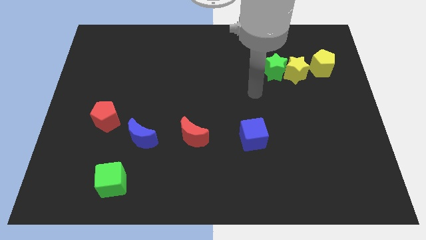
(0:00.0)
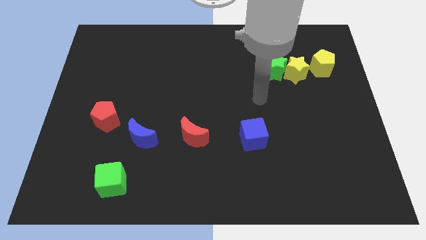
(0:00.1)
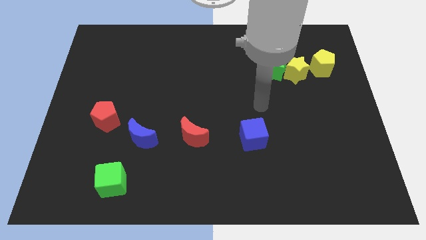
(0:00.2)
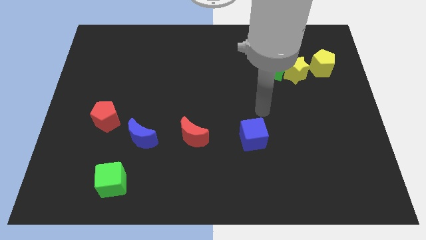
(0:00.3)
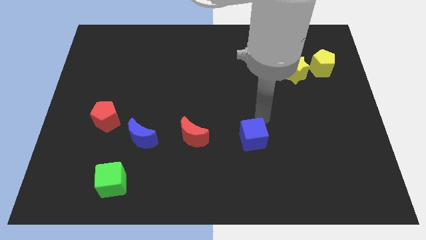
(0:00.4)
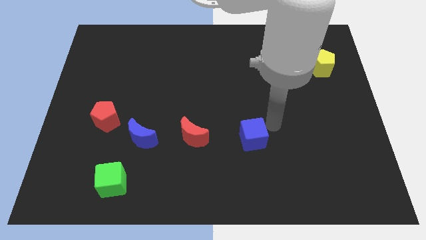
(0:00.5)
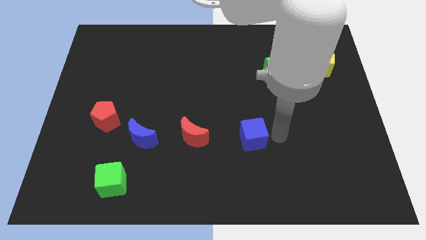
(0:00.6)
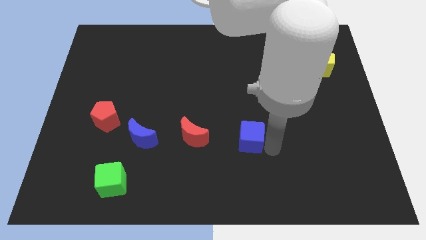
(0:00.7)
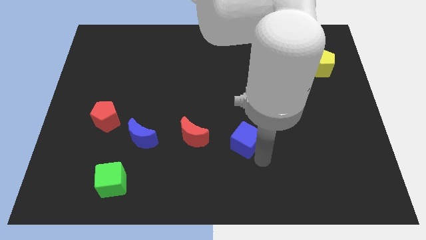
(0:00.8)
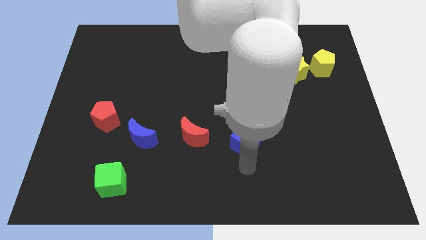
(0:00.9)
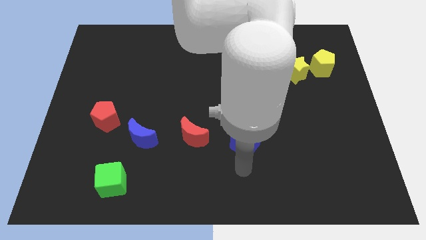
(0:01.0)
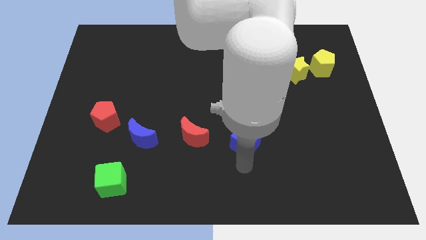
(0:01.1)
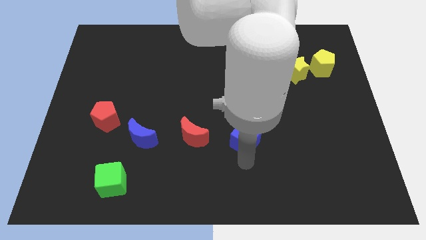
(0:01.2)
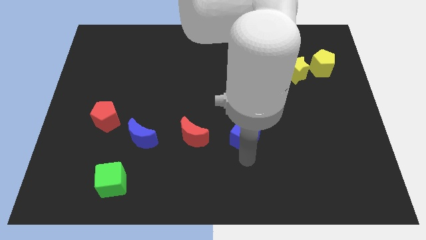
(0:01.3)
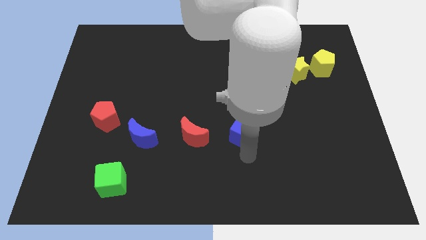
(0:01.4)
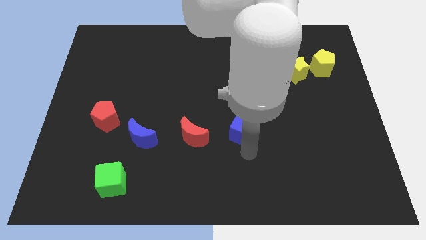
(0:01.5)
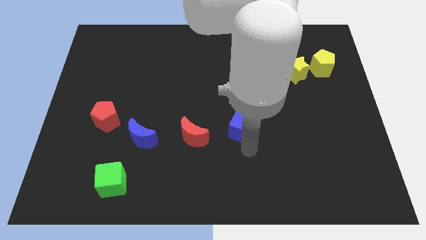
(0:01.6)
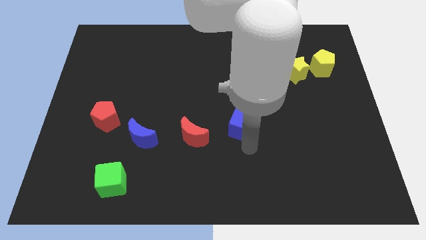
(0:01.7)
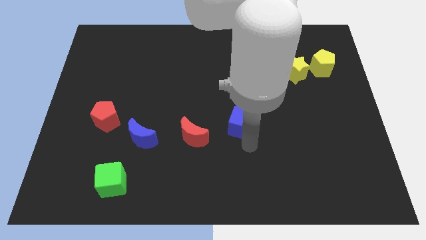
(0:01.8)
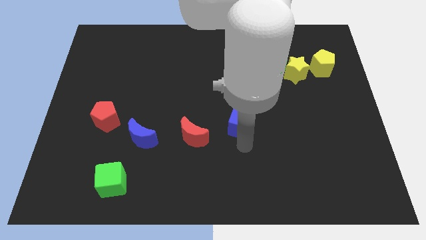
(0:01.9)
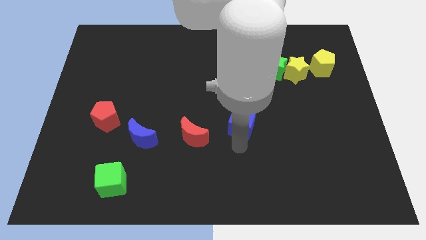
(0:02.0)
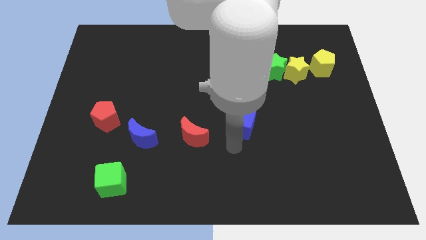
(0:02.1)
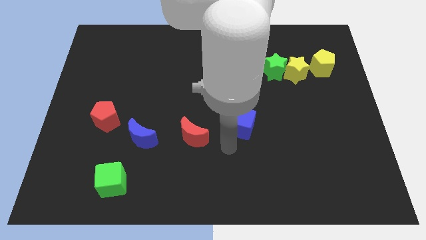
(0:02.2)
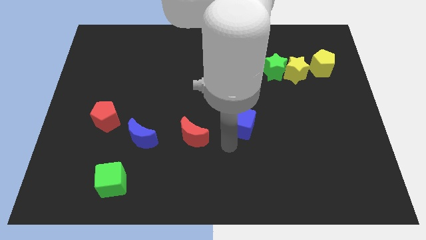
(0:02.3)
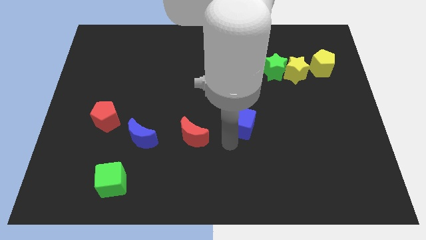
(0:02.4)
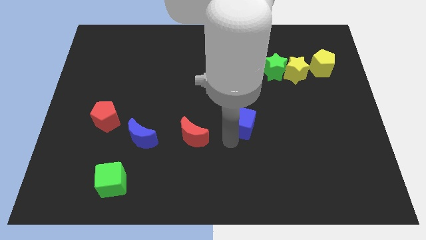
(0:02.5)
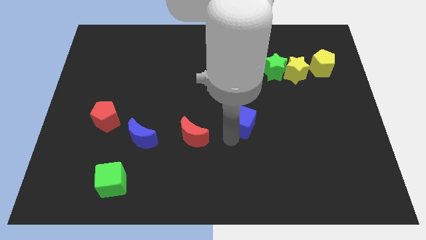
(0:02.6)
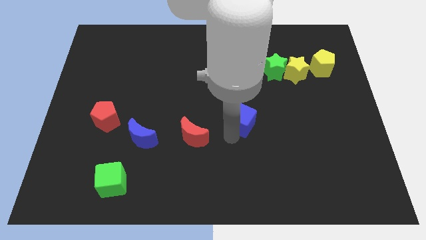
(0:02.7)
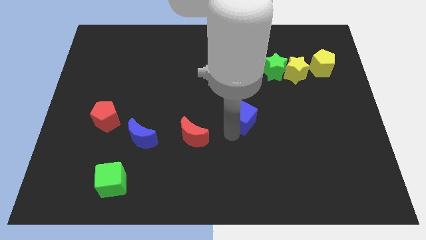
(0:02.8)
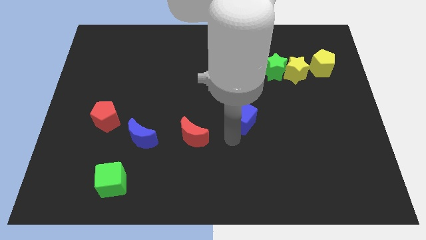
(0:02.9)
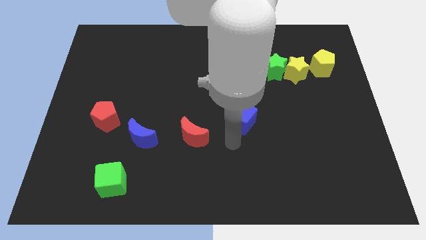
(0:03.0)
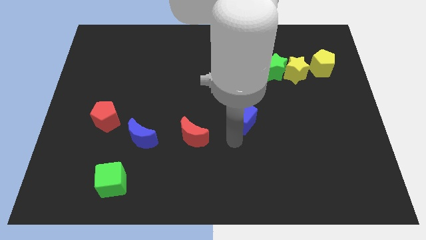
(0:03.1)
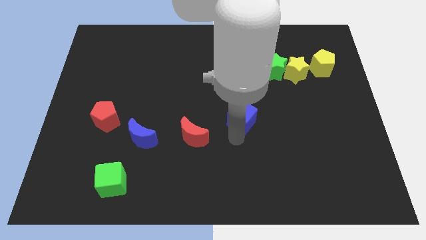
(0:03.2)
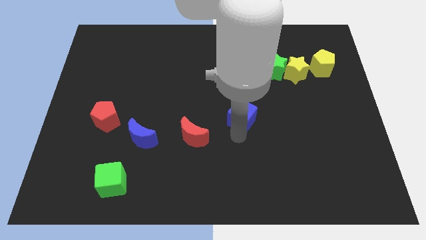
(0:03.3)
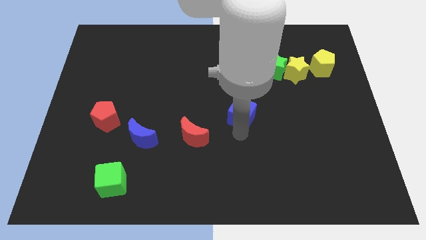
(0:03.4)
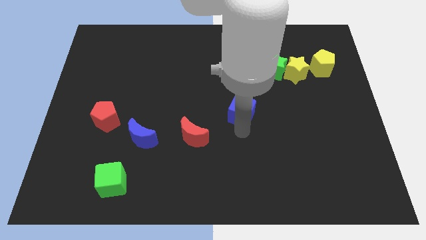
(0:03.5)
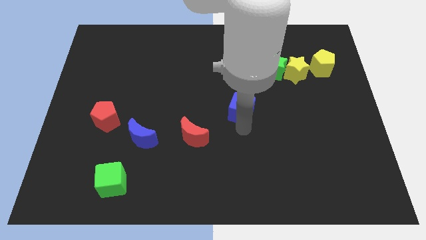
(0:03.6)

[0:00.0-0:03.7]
slide the blue cube up a little

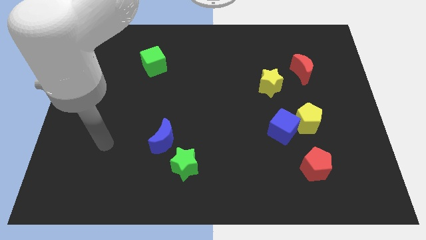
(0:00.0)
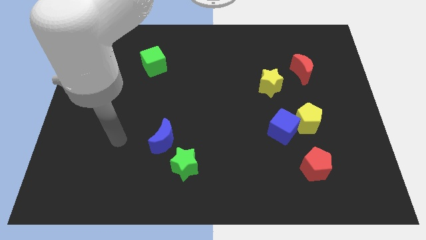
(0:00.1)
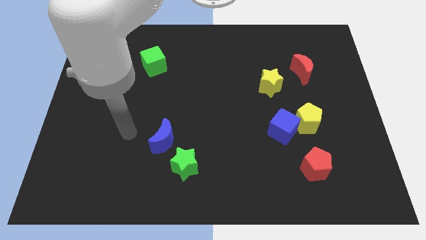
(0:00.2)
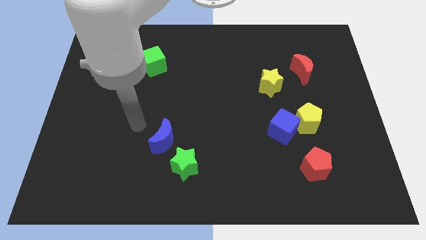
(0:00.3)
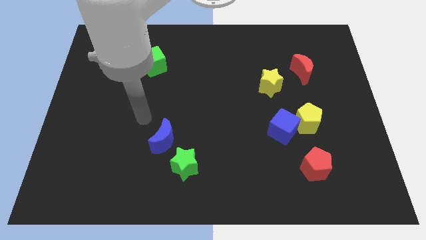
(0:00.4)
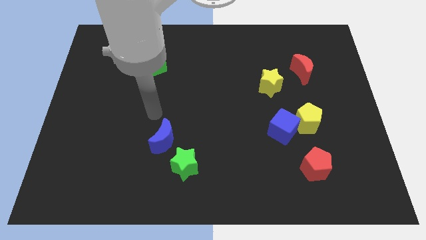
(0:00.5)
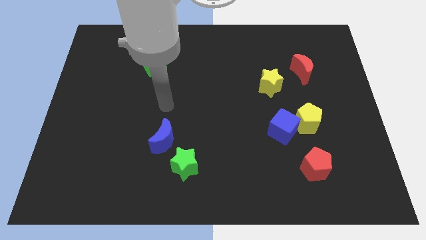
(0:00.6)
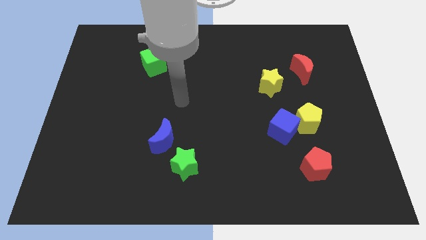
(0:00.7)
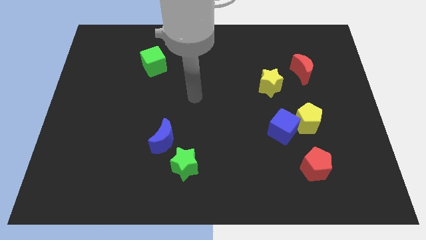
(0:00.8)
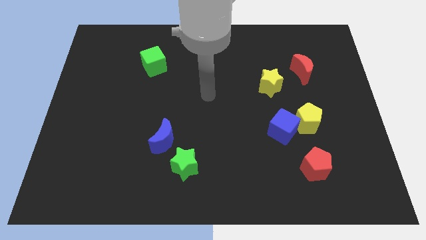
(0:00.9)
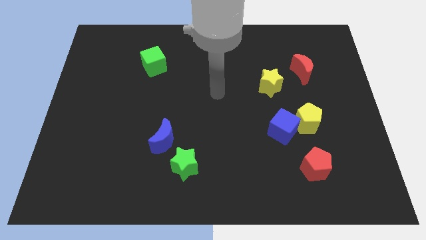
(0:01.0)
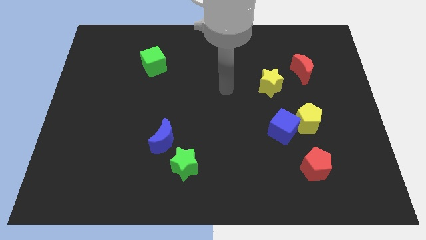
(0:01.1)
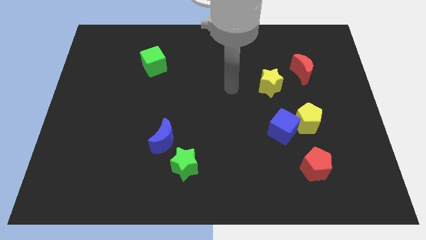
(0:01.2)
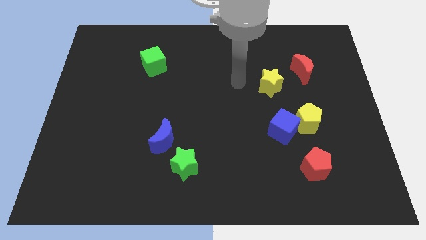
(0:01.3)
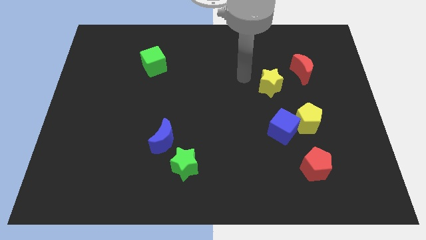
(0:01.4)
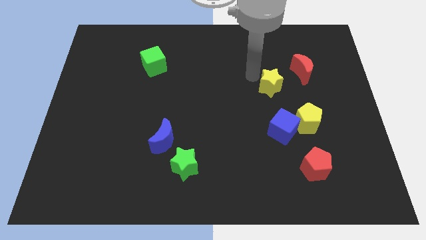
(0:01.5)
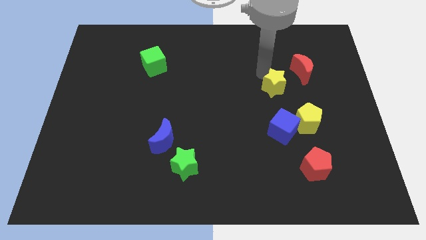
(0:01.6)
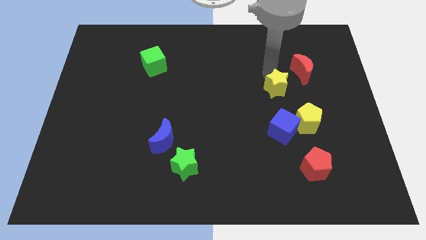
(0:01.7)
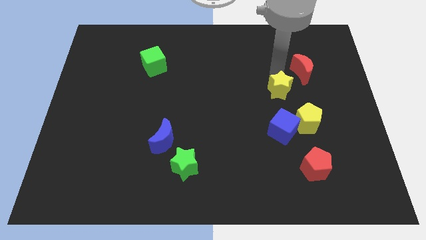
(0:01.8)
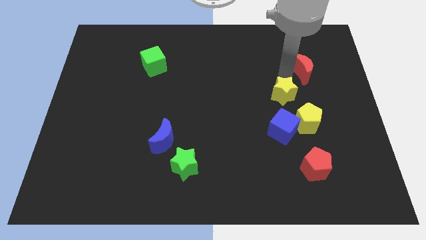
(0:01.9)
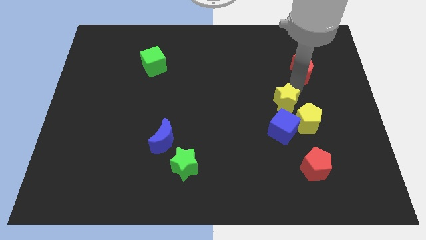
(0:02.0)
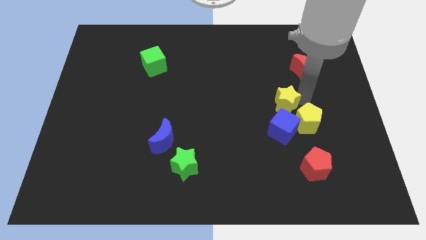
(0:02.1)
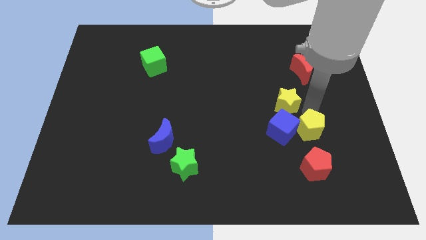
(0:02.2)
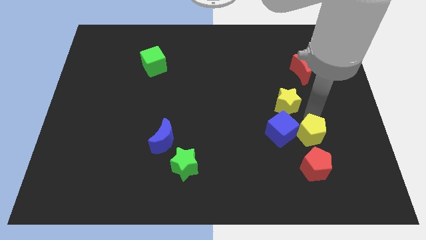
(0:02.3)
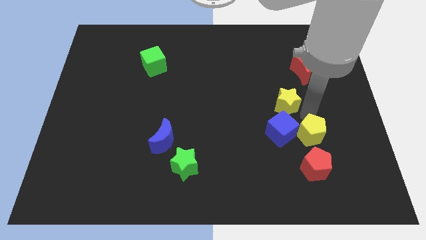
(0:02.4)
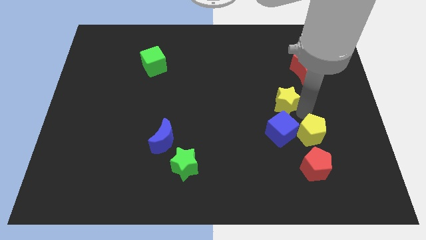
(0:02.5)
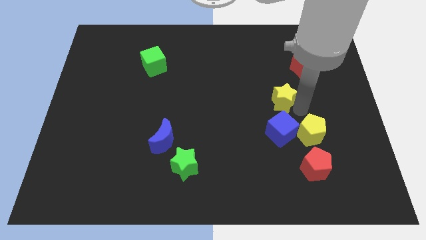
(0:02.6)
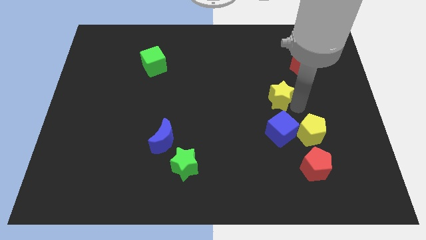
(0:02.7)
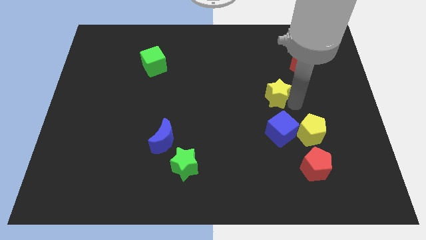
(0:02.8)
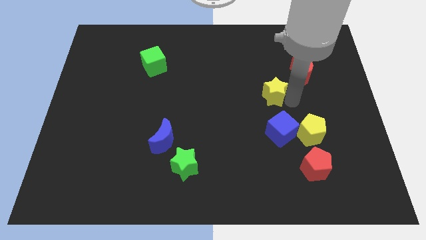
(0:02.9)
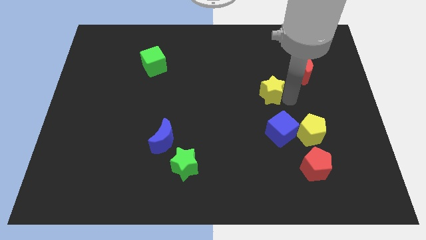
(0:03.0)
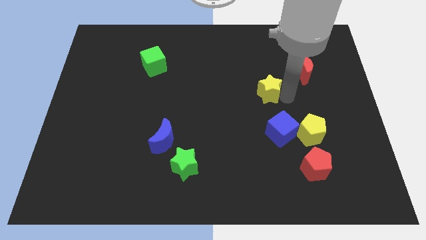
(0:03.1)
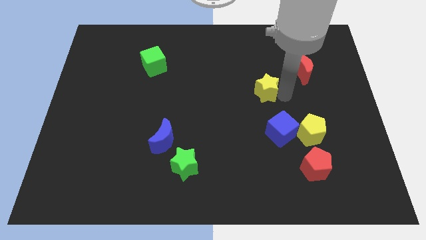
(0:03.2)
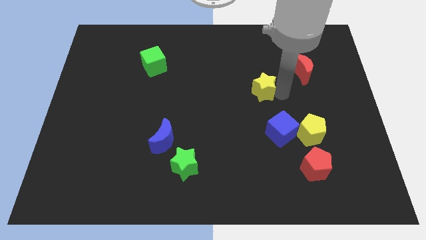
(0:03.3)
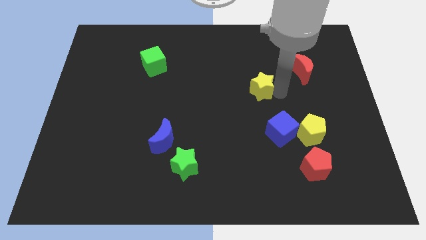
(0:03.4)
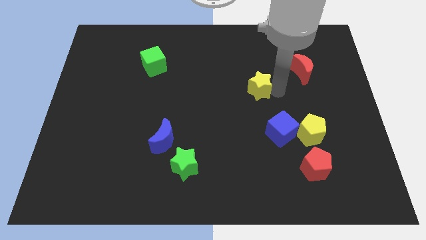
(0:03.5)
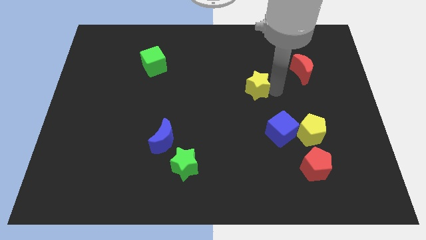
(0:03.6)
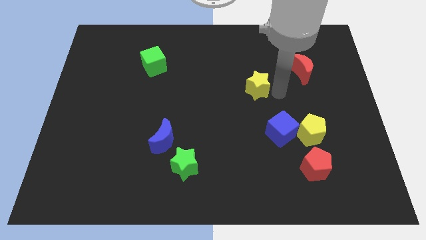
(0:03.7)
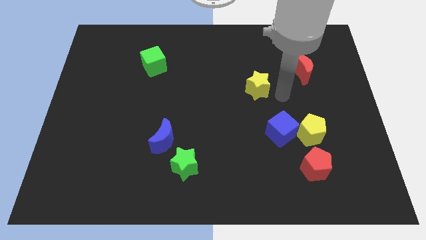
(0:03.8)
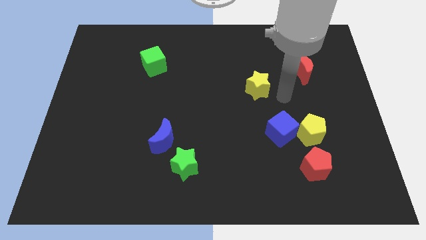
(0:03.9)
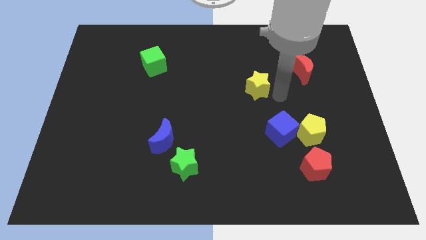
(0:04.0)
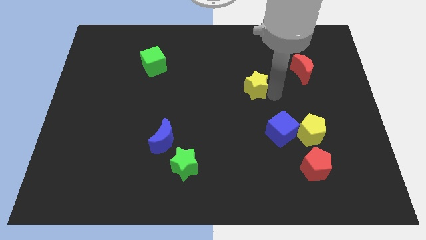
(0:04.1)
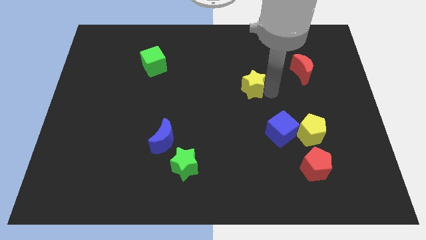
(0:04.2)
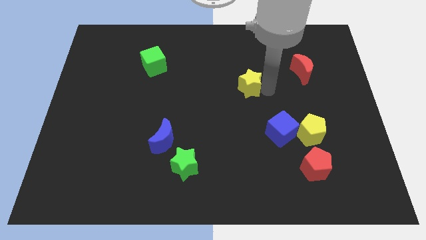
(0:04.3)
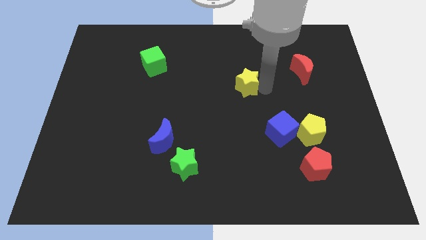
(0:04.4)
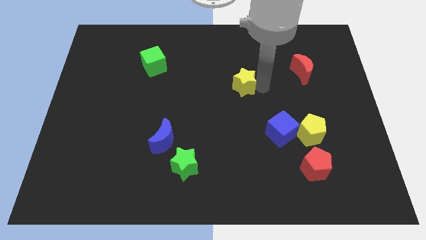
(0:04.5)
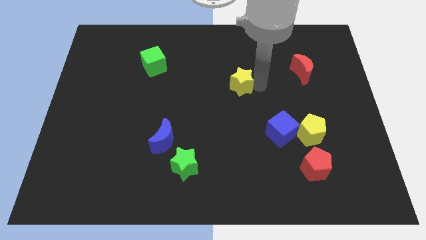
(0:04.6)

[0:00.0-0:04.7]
move the yellow star left somewhat
